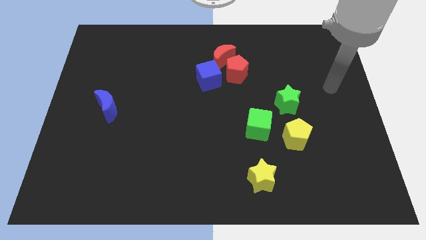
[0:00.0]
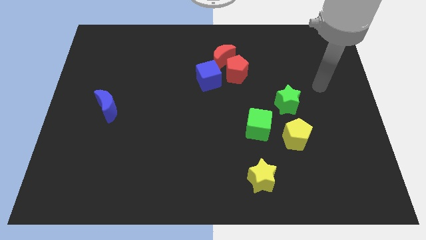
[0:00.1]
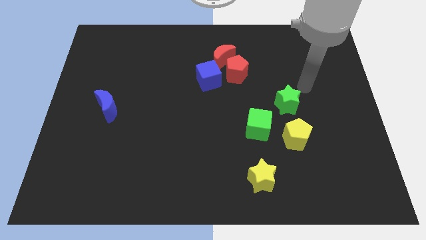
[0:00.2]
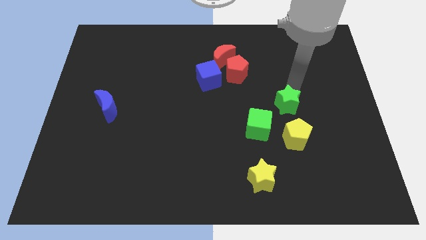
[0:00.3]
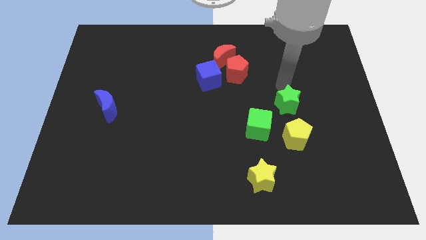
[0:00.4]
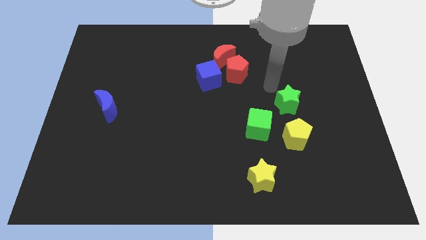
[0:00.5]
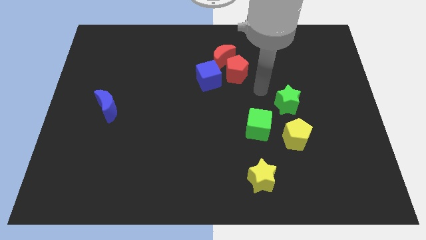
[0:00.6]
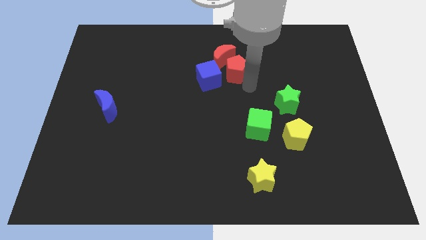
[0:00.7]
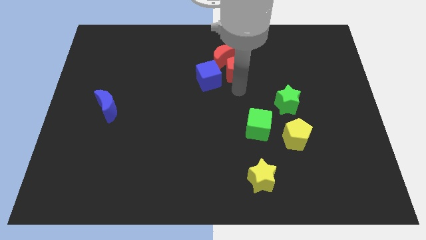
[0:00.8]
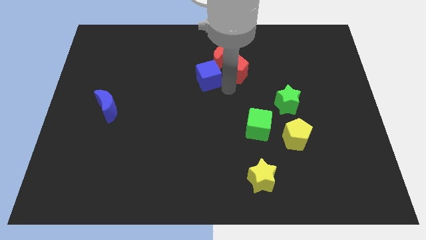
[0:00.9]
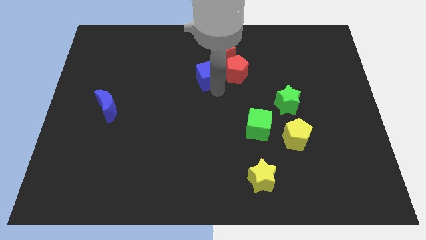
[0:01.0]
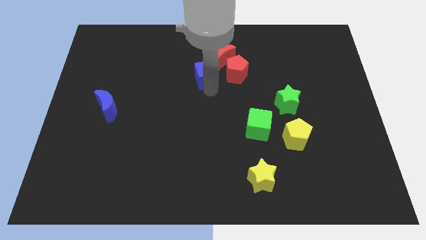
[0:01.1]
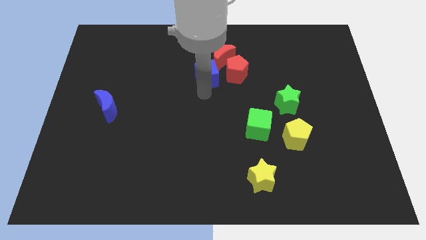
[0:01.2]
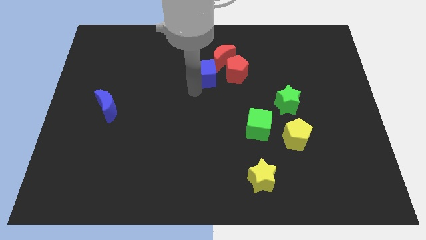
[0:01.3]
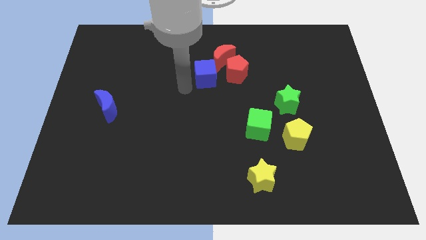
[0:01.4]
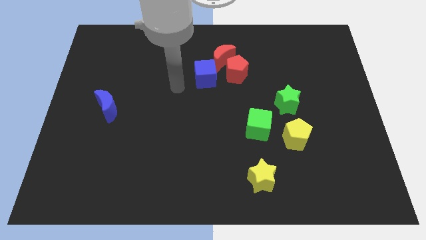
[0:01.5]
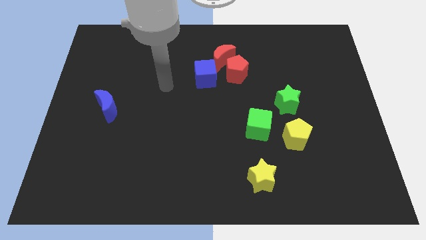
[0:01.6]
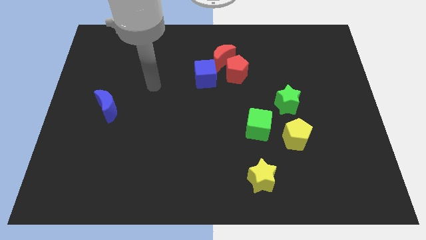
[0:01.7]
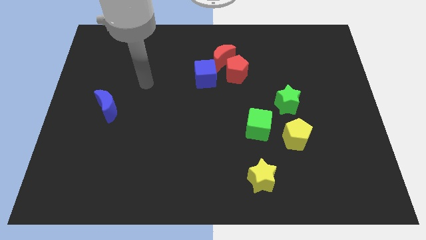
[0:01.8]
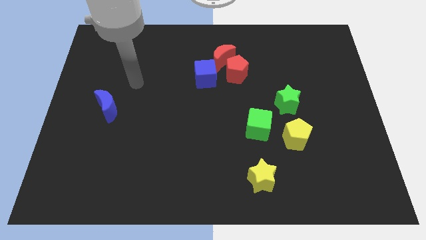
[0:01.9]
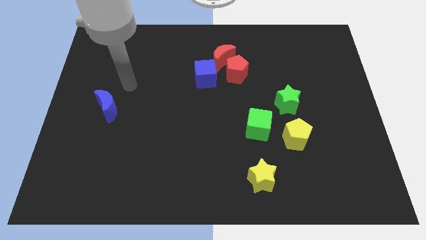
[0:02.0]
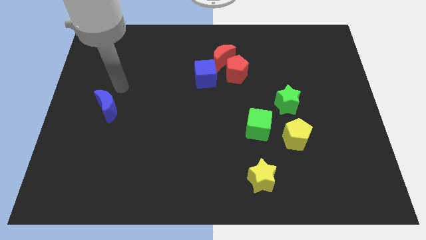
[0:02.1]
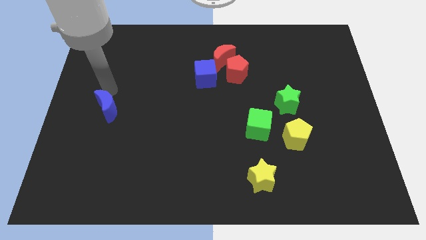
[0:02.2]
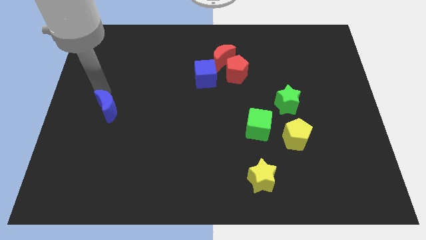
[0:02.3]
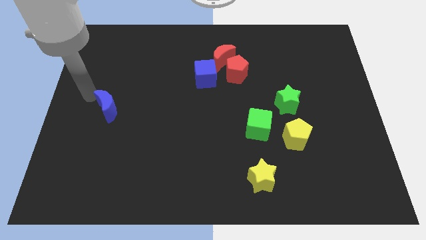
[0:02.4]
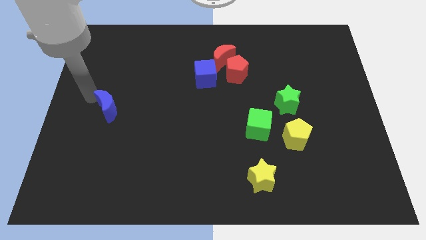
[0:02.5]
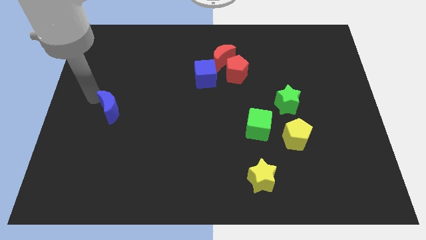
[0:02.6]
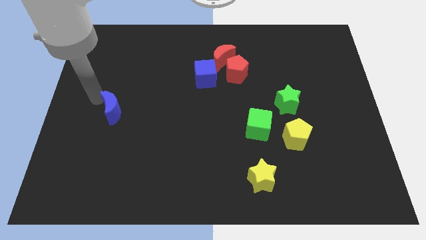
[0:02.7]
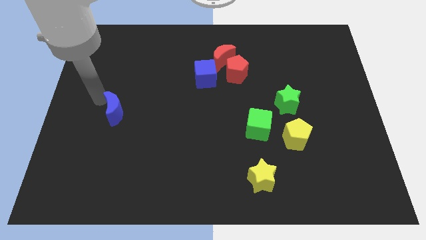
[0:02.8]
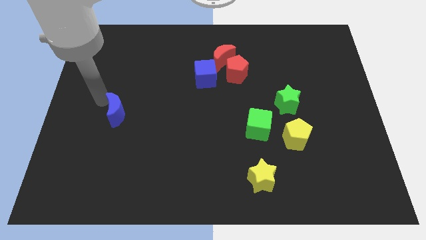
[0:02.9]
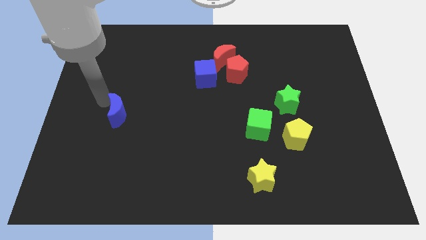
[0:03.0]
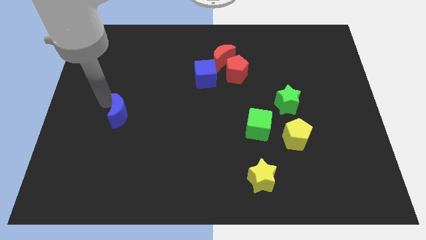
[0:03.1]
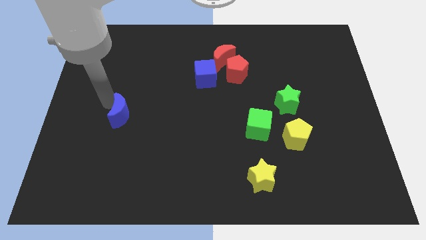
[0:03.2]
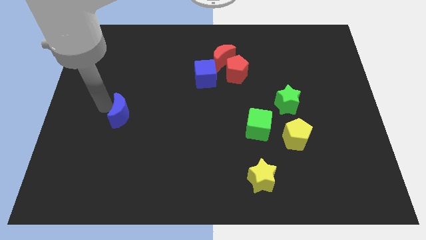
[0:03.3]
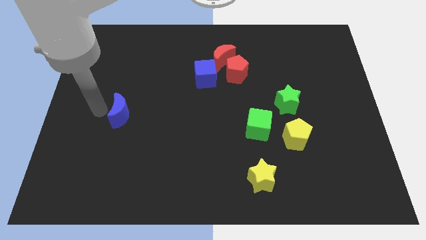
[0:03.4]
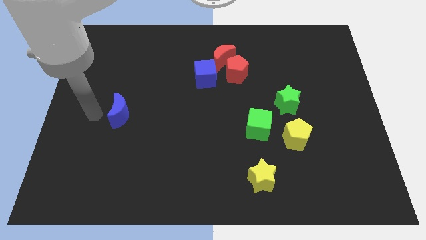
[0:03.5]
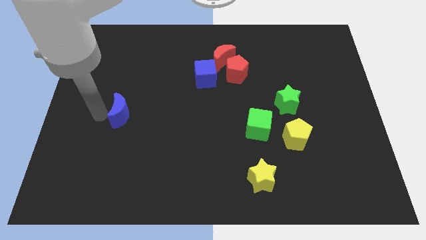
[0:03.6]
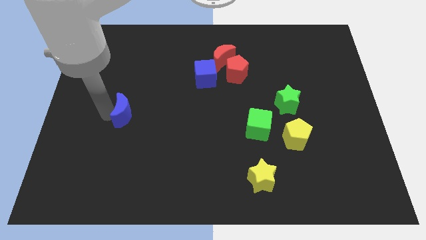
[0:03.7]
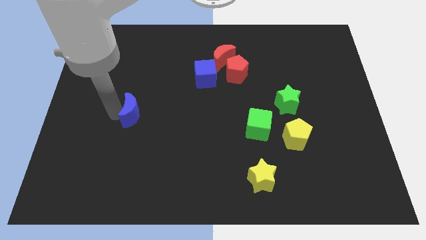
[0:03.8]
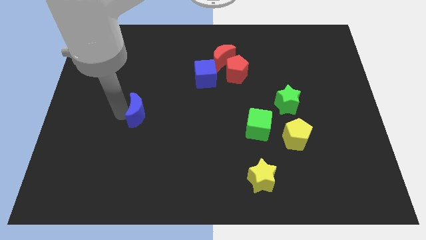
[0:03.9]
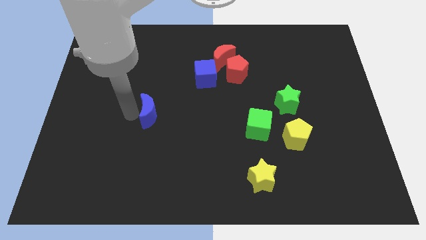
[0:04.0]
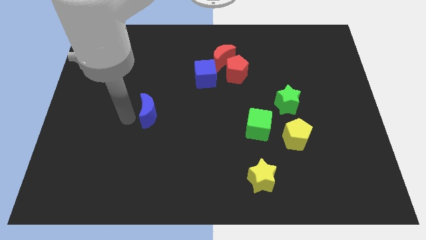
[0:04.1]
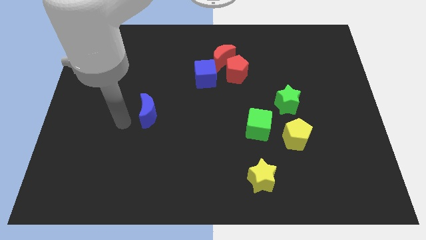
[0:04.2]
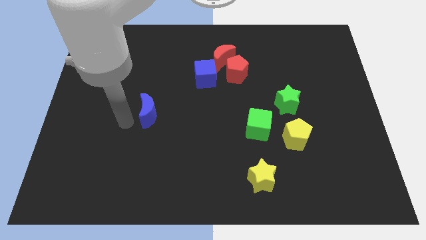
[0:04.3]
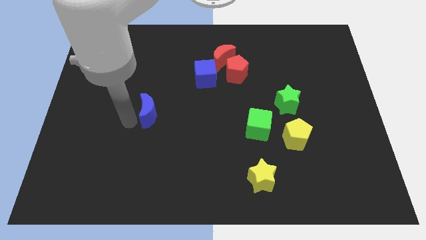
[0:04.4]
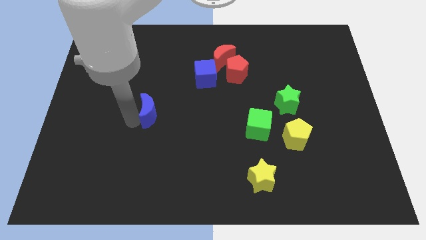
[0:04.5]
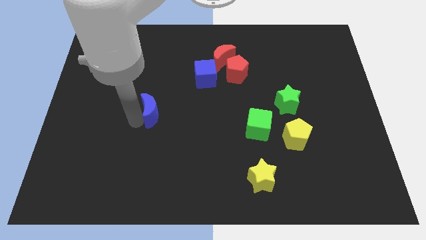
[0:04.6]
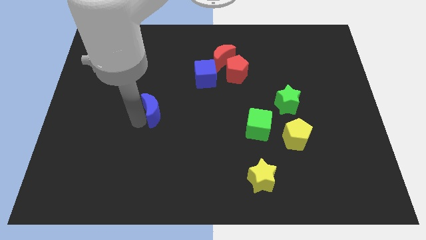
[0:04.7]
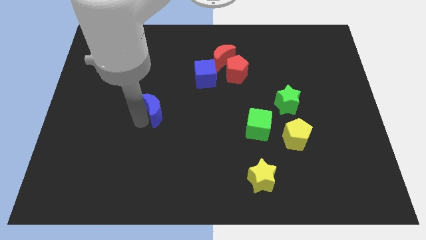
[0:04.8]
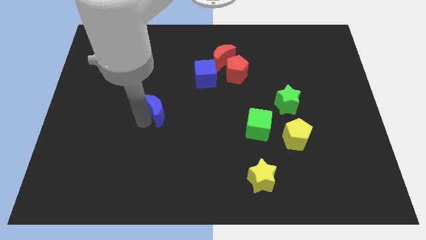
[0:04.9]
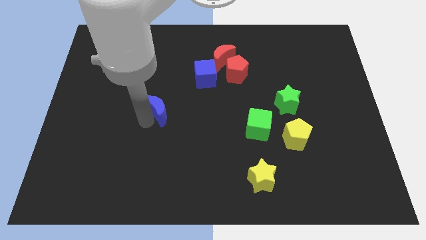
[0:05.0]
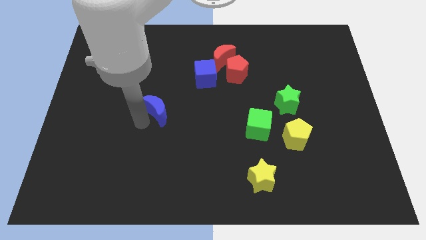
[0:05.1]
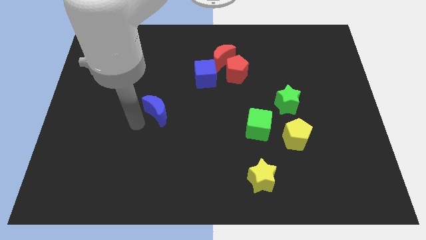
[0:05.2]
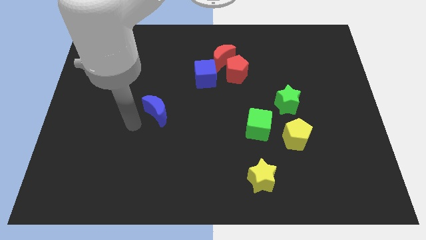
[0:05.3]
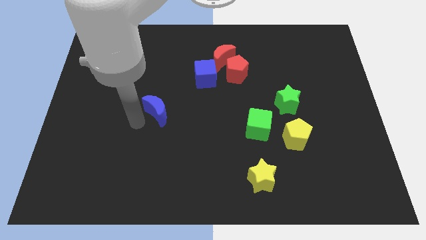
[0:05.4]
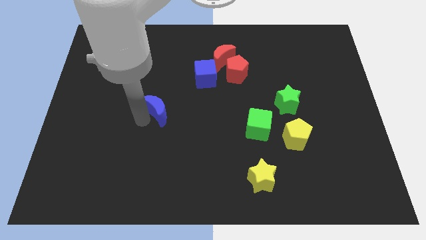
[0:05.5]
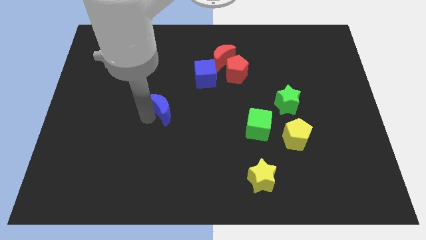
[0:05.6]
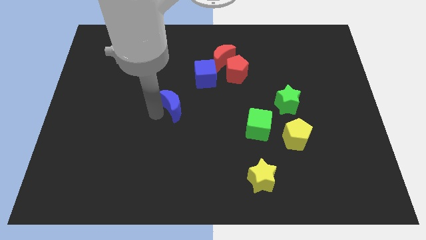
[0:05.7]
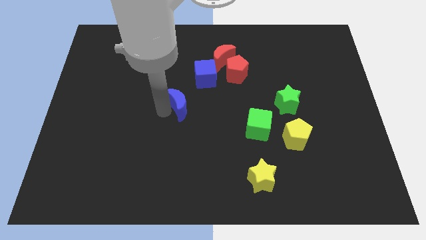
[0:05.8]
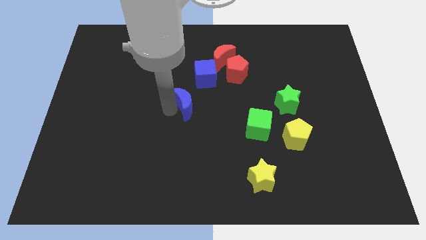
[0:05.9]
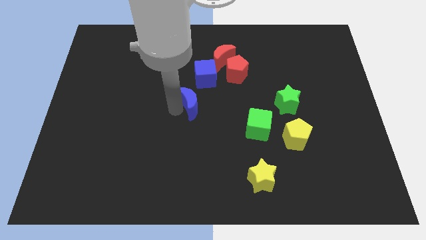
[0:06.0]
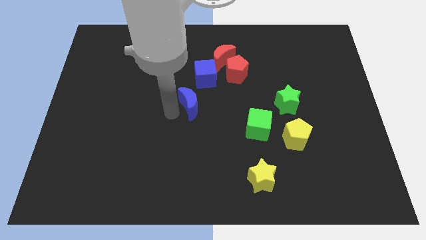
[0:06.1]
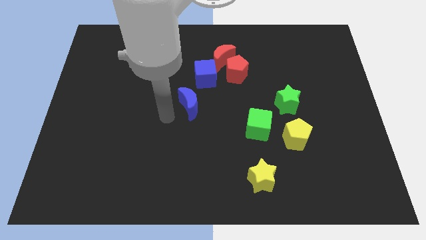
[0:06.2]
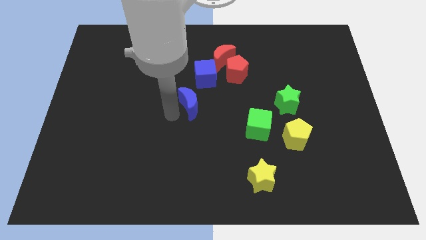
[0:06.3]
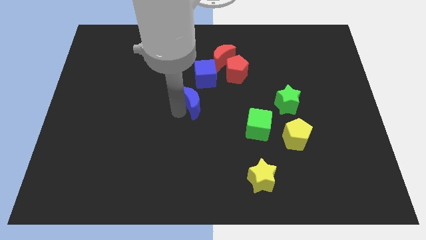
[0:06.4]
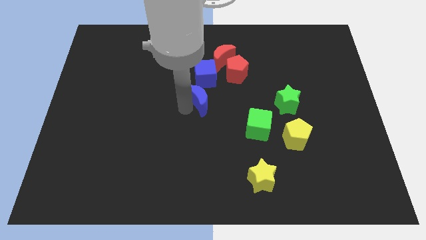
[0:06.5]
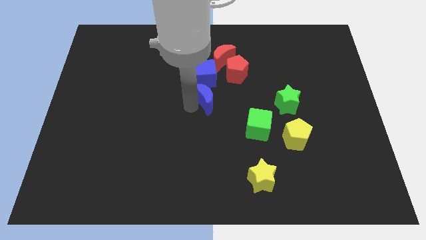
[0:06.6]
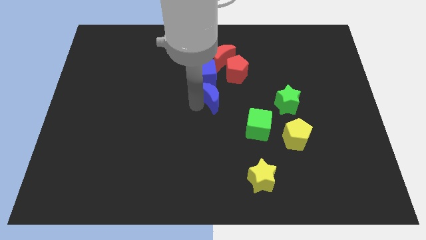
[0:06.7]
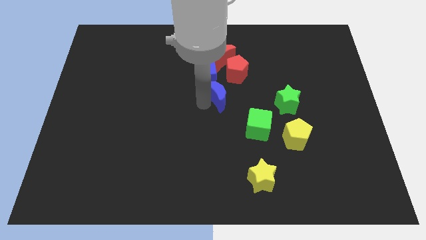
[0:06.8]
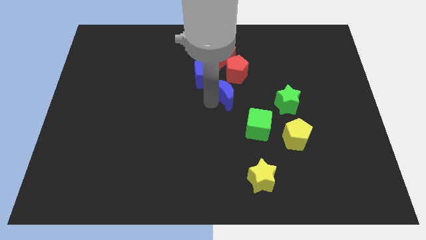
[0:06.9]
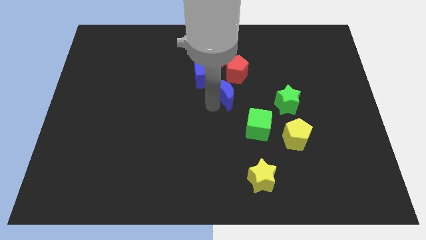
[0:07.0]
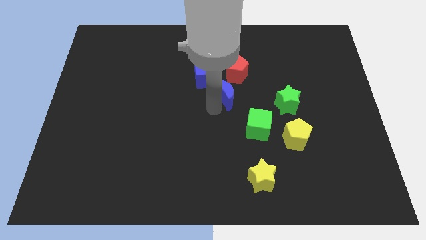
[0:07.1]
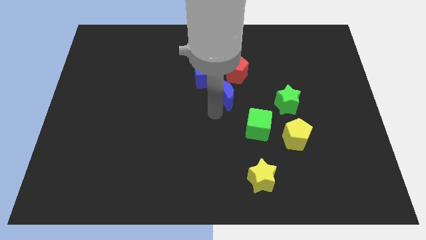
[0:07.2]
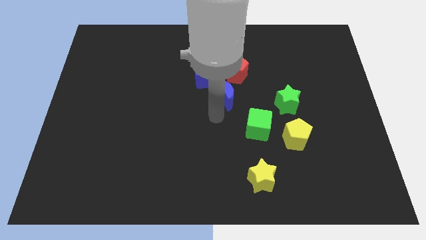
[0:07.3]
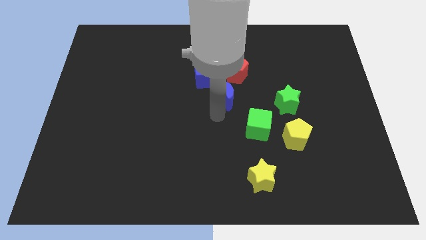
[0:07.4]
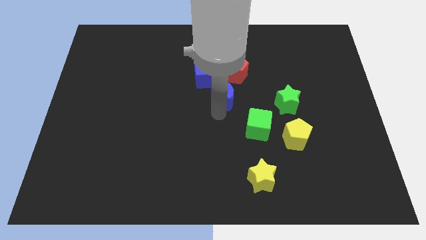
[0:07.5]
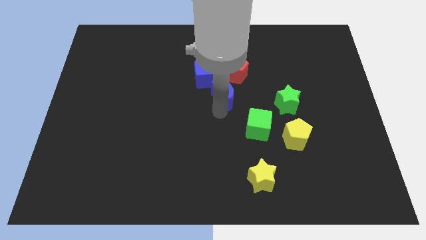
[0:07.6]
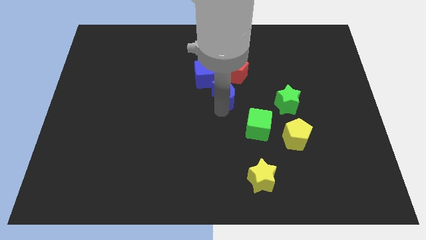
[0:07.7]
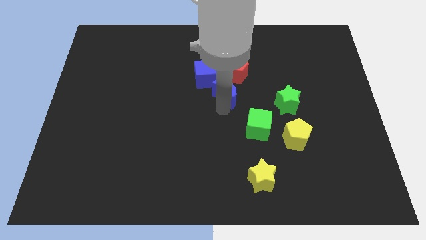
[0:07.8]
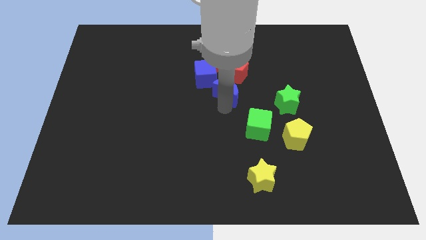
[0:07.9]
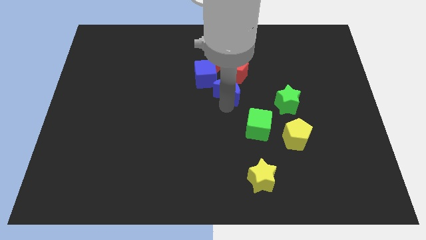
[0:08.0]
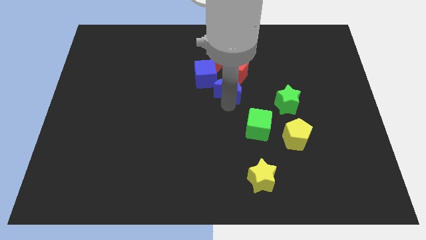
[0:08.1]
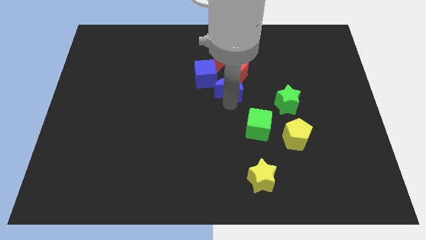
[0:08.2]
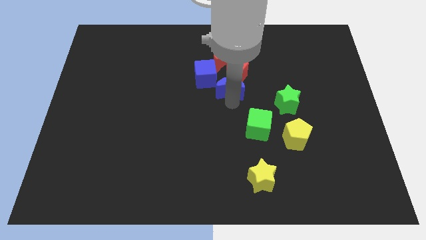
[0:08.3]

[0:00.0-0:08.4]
put the blue moon close to the red pentagon

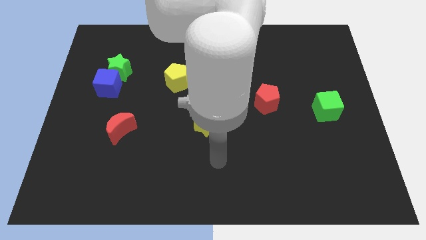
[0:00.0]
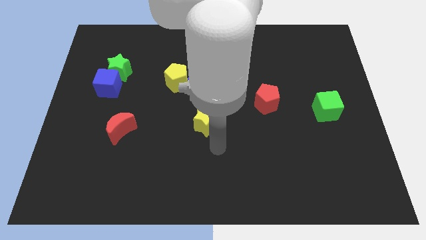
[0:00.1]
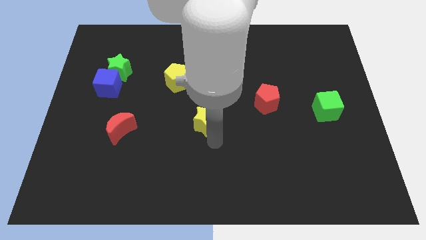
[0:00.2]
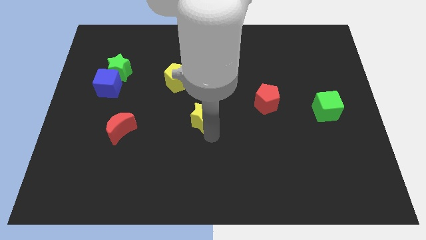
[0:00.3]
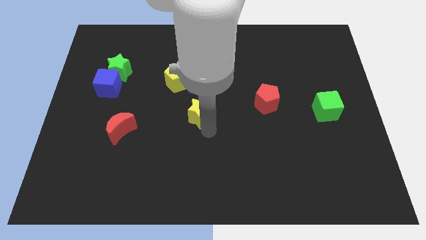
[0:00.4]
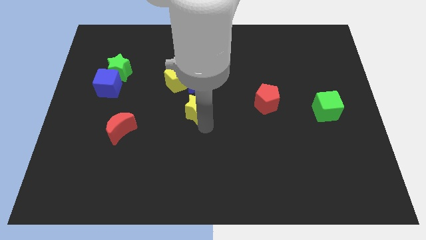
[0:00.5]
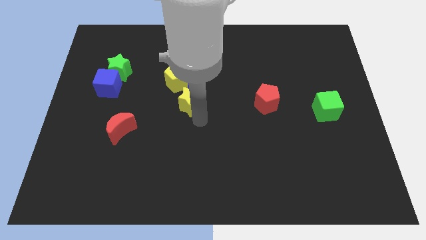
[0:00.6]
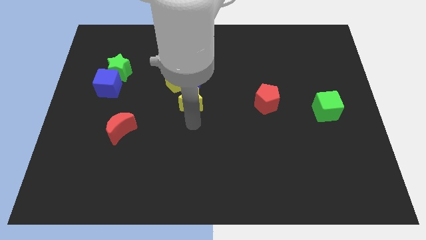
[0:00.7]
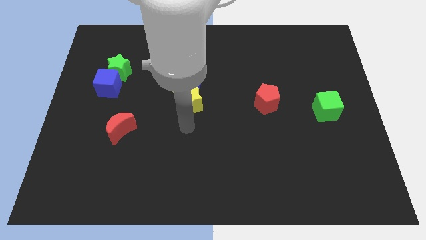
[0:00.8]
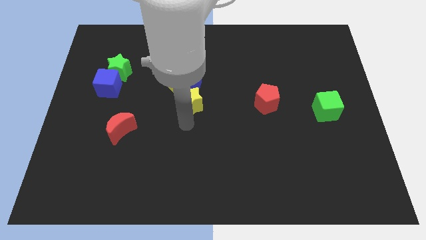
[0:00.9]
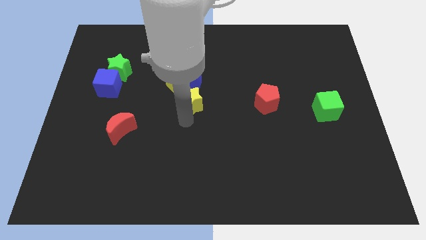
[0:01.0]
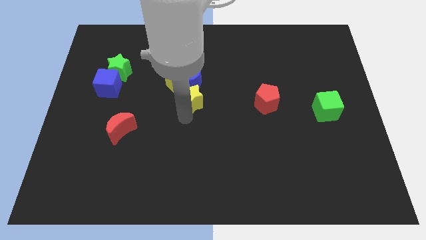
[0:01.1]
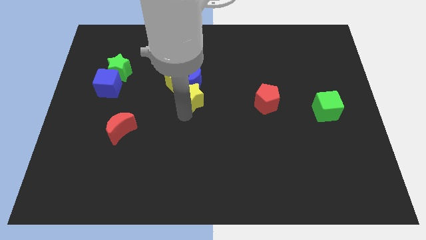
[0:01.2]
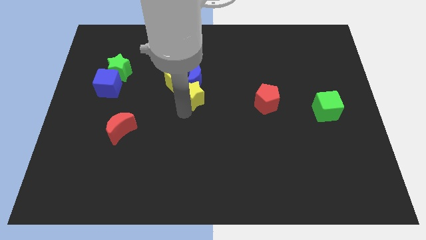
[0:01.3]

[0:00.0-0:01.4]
push the yellow star close to the blue moon
